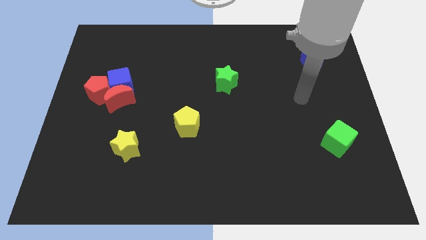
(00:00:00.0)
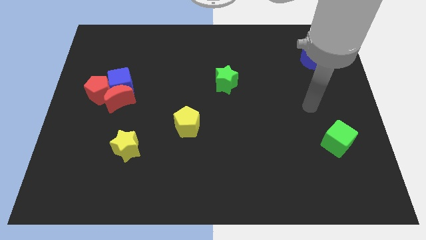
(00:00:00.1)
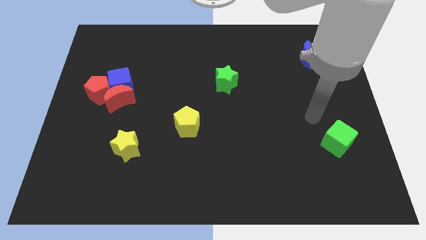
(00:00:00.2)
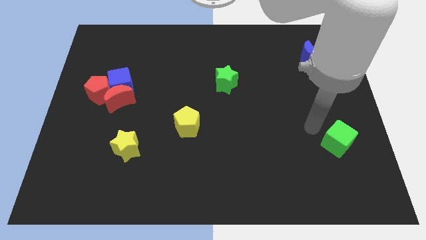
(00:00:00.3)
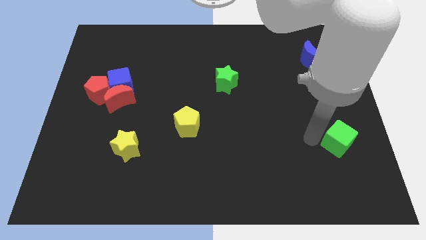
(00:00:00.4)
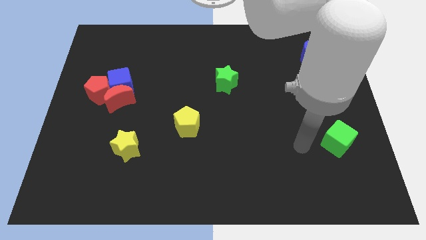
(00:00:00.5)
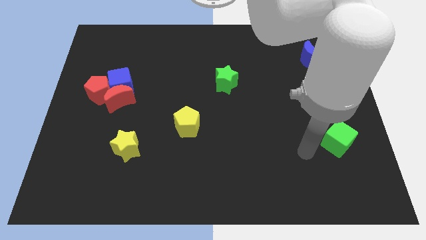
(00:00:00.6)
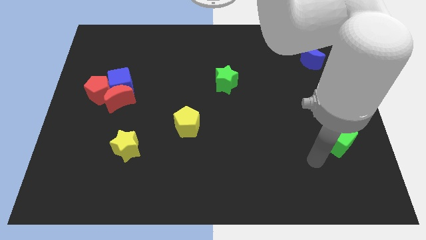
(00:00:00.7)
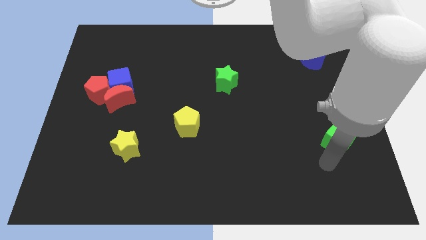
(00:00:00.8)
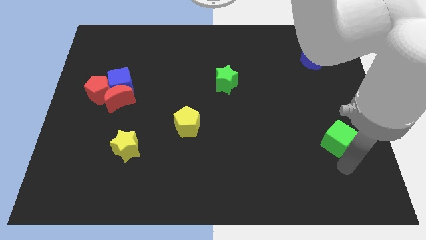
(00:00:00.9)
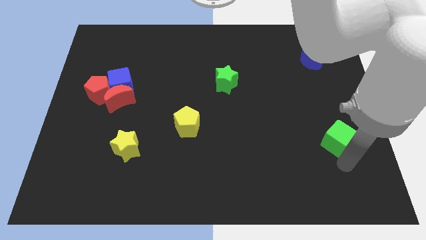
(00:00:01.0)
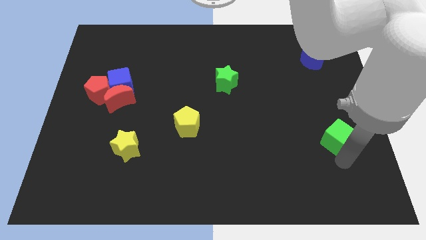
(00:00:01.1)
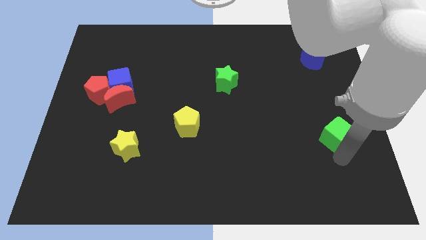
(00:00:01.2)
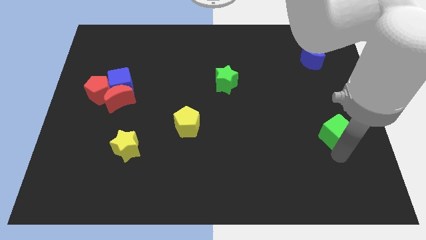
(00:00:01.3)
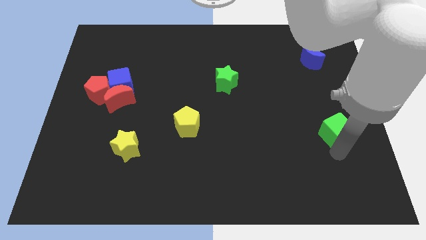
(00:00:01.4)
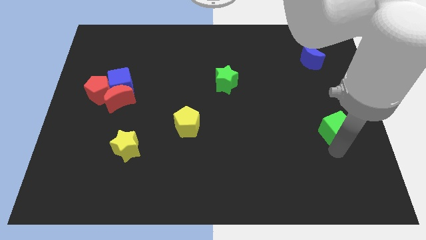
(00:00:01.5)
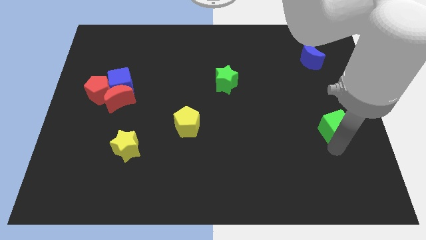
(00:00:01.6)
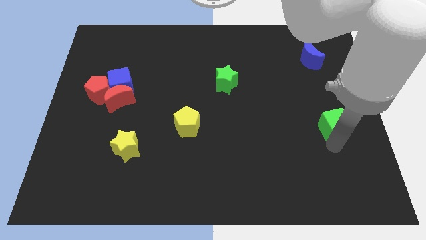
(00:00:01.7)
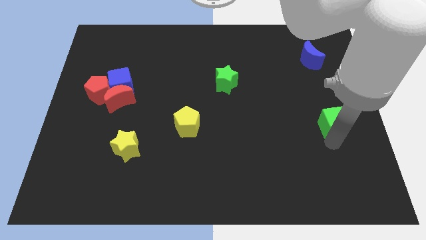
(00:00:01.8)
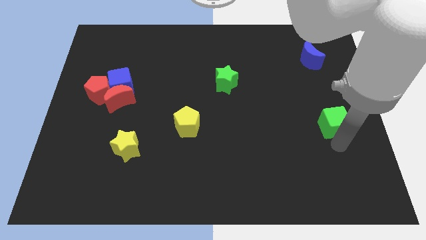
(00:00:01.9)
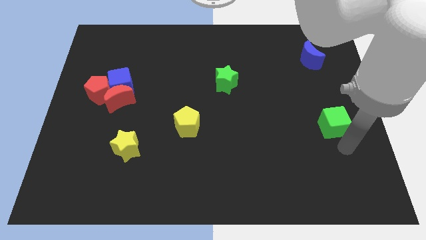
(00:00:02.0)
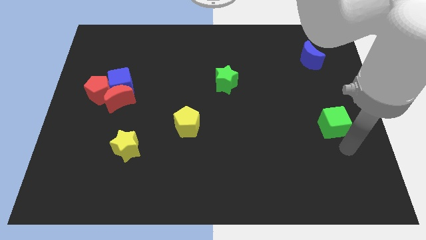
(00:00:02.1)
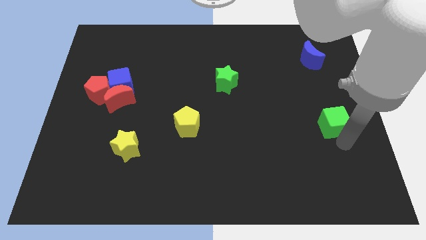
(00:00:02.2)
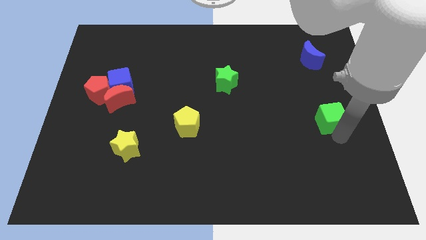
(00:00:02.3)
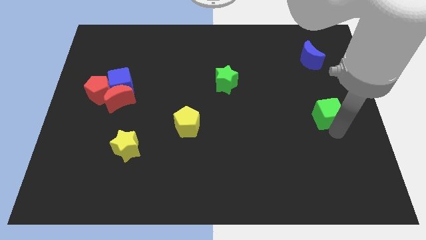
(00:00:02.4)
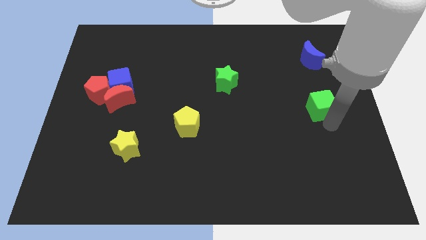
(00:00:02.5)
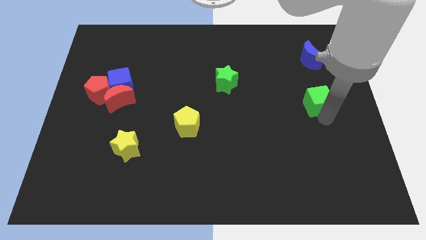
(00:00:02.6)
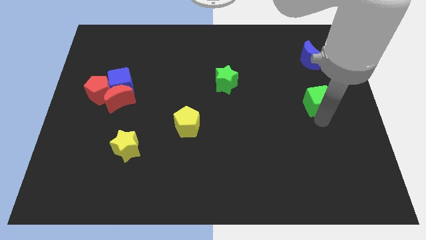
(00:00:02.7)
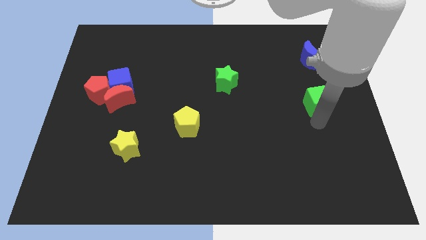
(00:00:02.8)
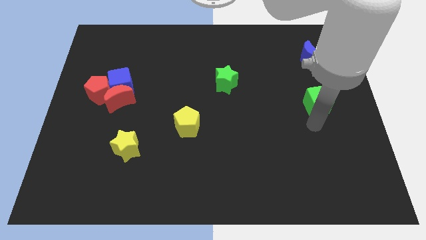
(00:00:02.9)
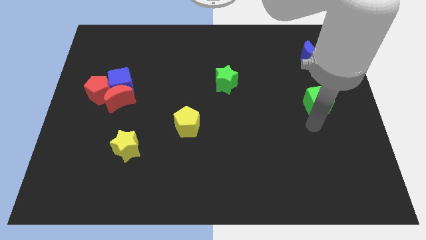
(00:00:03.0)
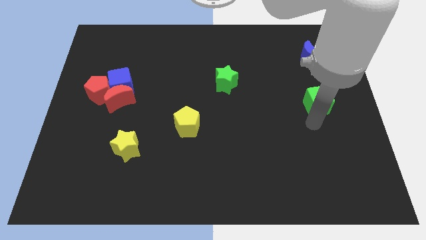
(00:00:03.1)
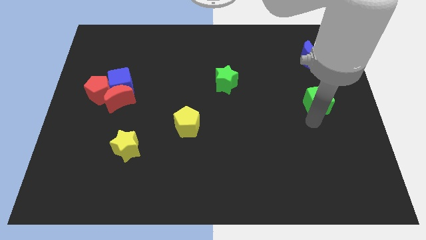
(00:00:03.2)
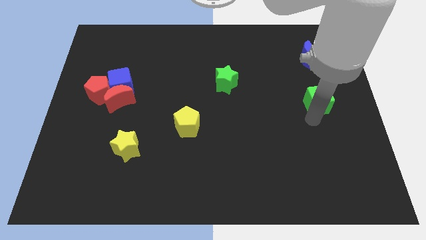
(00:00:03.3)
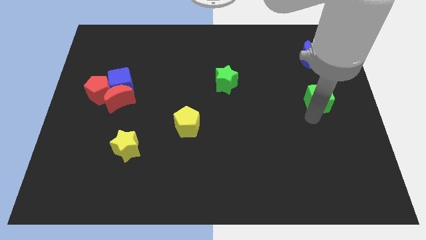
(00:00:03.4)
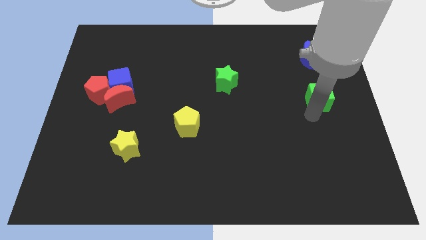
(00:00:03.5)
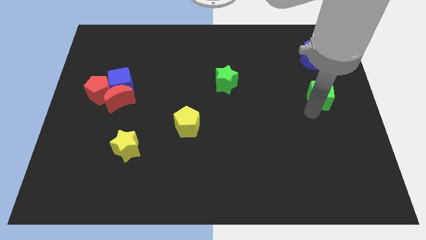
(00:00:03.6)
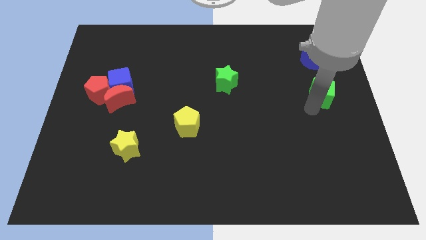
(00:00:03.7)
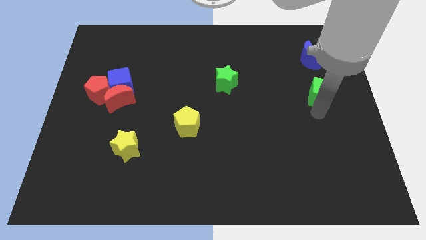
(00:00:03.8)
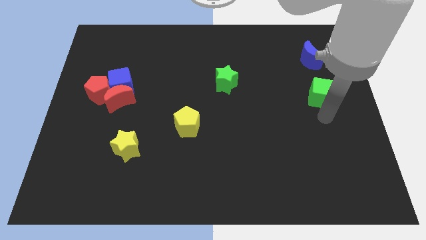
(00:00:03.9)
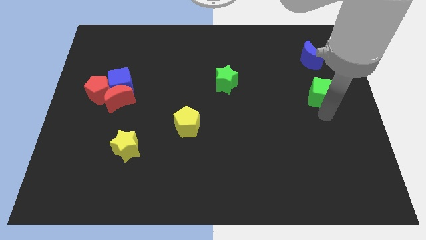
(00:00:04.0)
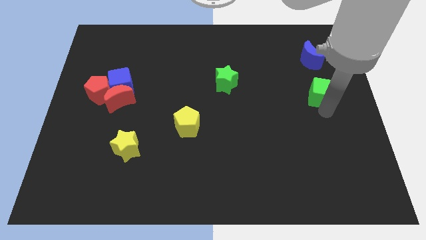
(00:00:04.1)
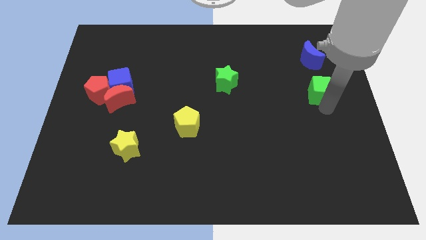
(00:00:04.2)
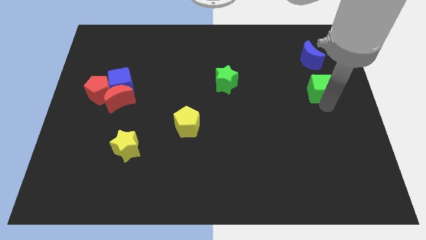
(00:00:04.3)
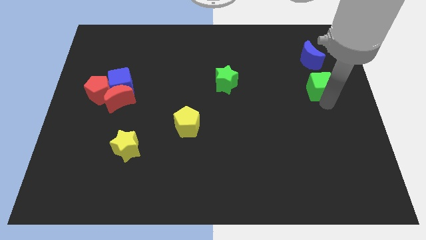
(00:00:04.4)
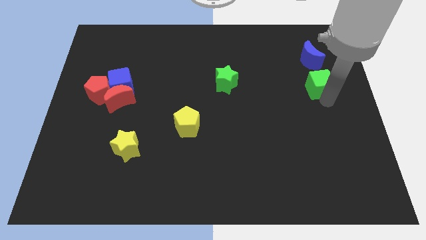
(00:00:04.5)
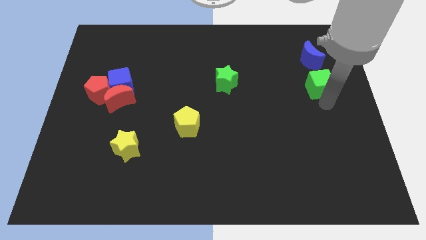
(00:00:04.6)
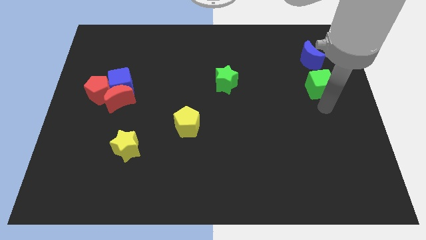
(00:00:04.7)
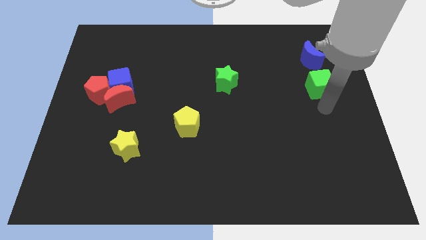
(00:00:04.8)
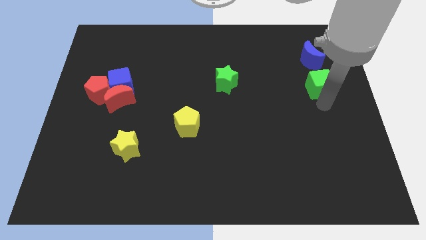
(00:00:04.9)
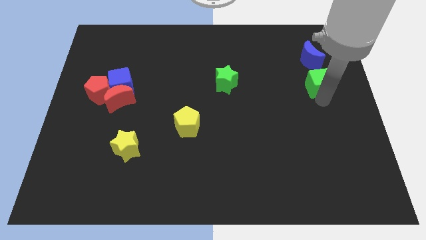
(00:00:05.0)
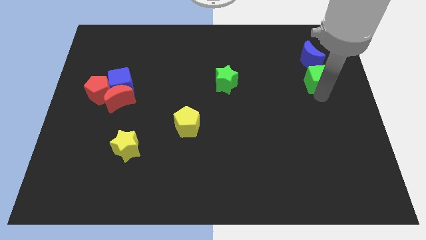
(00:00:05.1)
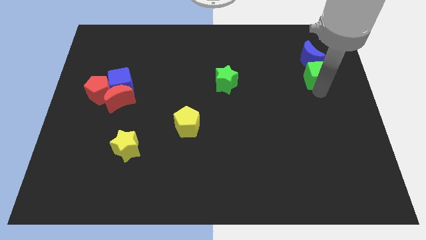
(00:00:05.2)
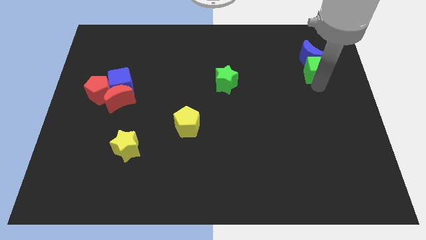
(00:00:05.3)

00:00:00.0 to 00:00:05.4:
push the green cube towards the blue moon

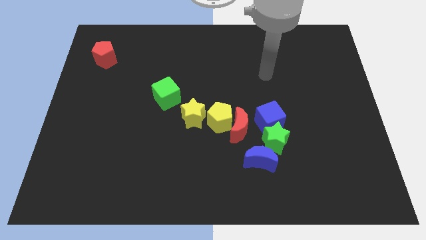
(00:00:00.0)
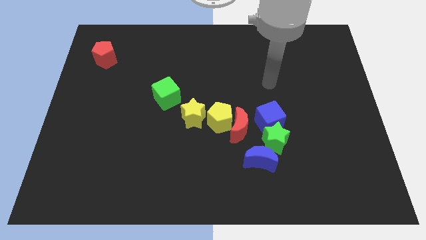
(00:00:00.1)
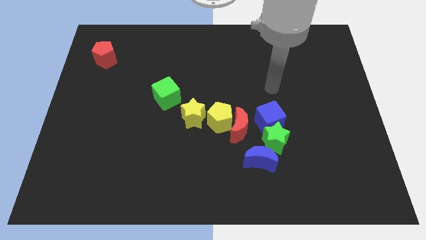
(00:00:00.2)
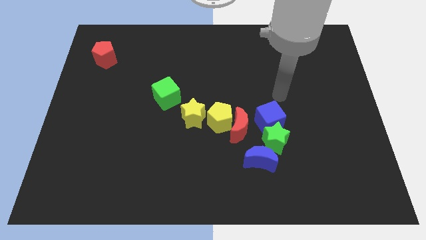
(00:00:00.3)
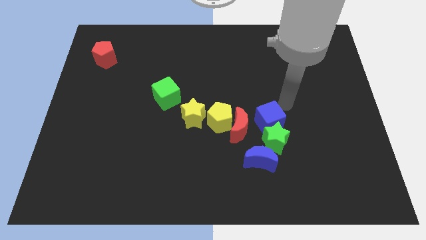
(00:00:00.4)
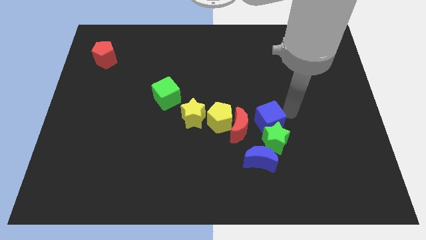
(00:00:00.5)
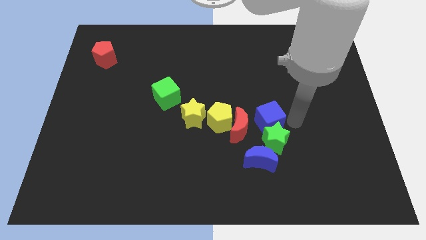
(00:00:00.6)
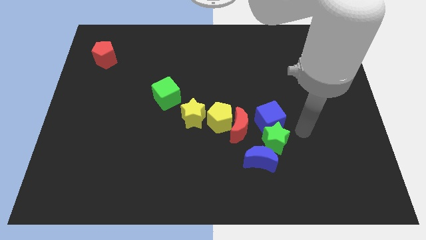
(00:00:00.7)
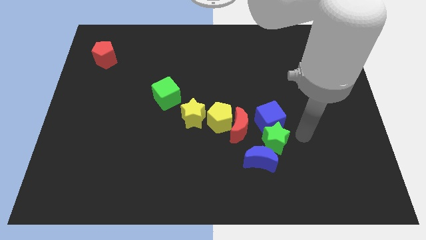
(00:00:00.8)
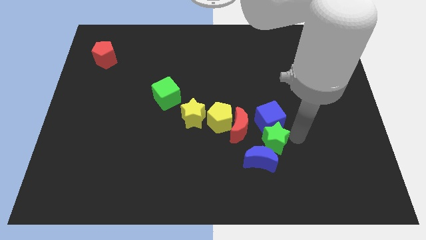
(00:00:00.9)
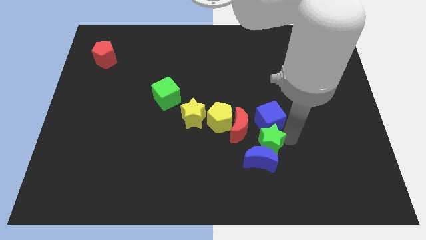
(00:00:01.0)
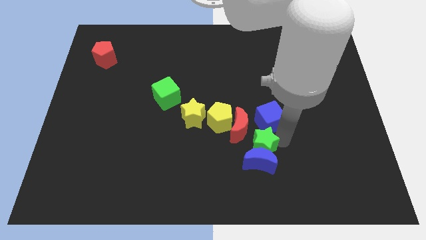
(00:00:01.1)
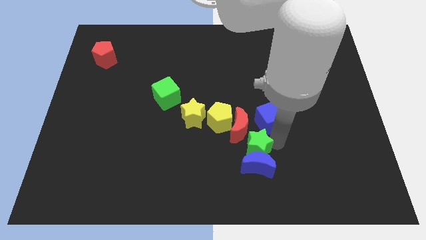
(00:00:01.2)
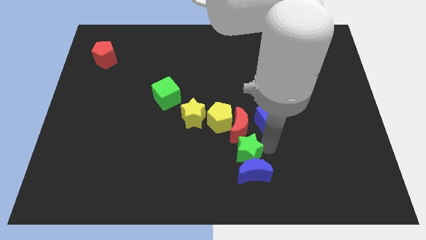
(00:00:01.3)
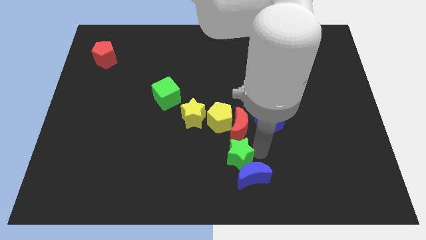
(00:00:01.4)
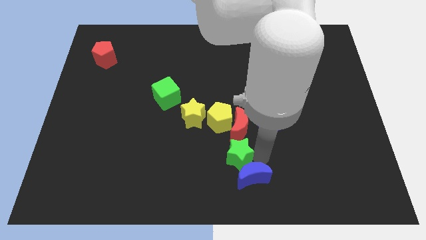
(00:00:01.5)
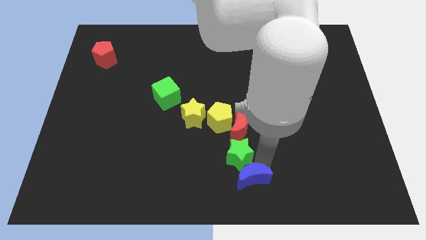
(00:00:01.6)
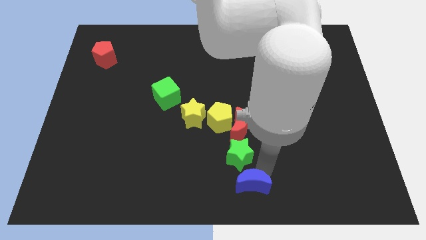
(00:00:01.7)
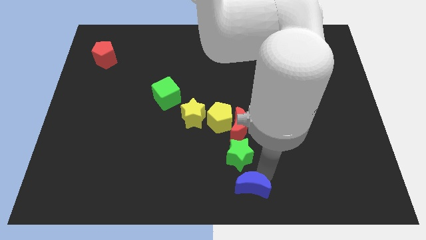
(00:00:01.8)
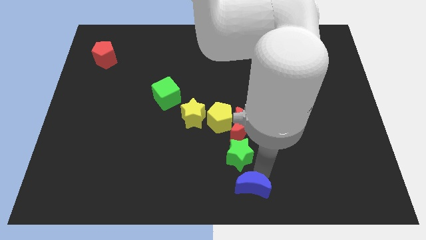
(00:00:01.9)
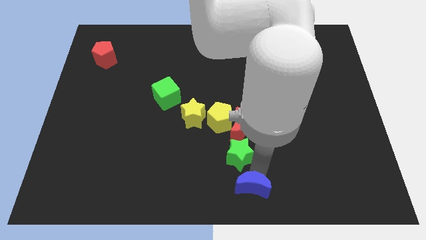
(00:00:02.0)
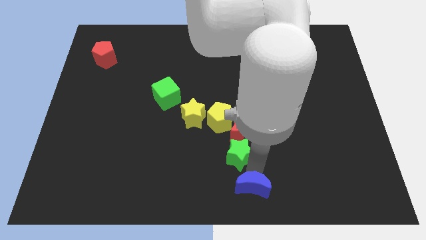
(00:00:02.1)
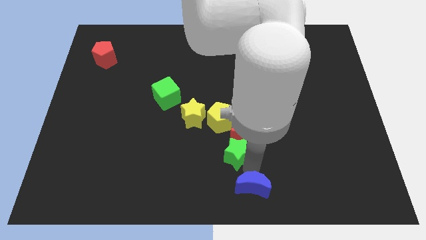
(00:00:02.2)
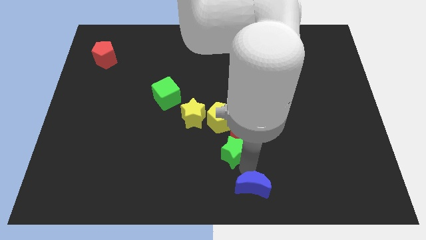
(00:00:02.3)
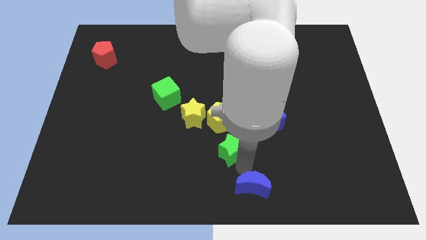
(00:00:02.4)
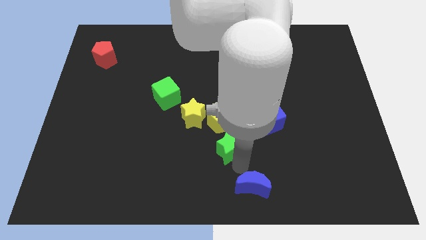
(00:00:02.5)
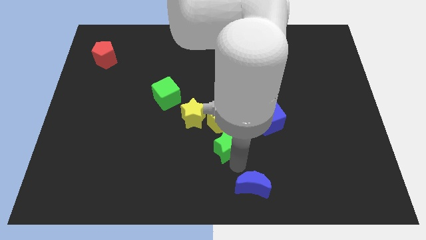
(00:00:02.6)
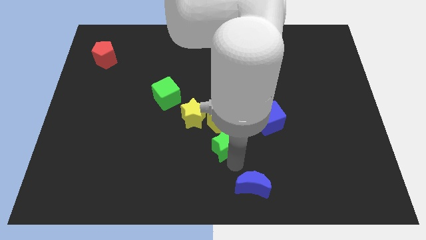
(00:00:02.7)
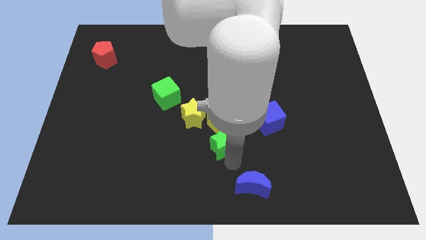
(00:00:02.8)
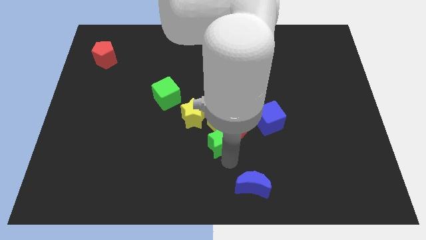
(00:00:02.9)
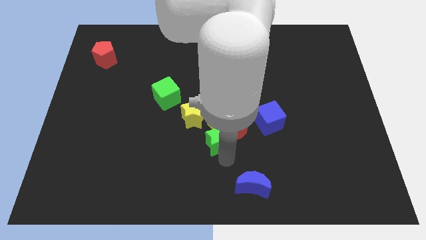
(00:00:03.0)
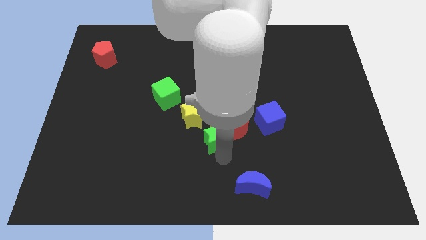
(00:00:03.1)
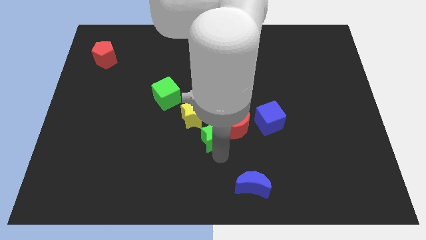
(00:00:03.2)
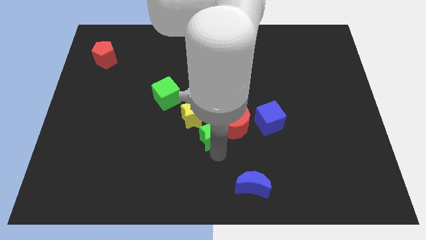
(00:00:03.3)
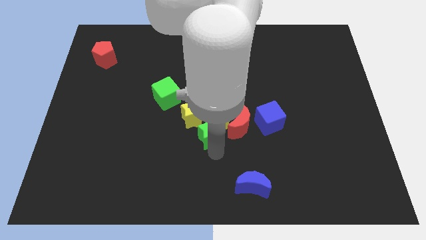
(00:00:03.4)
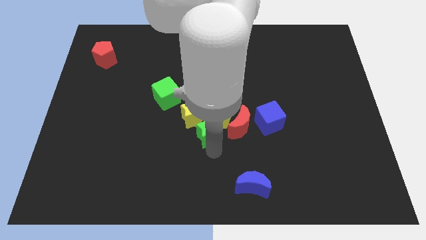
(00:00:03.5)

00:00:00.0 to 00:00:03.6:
push the green star to the yellow star
